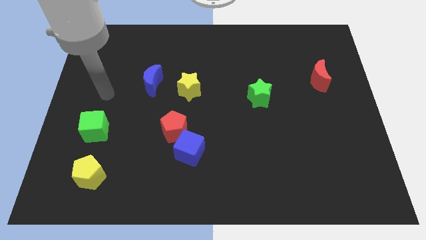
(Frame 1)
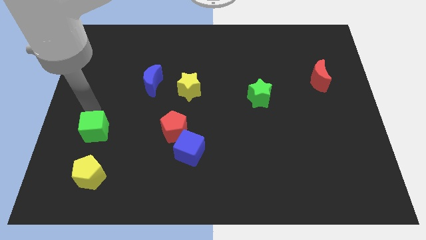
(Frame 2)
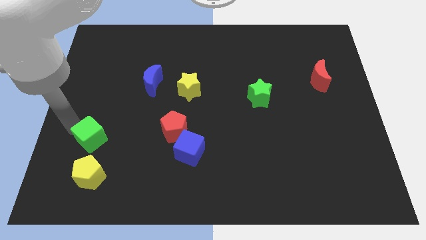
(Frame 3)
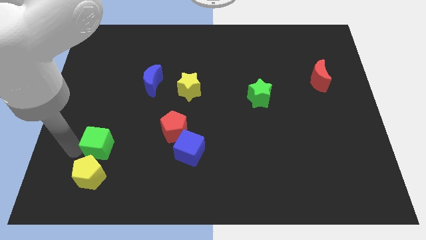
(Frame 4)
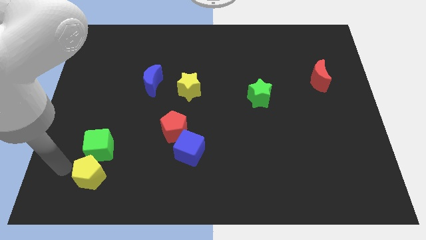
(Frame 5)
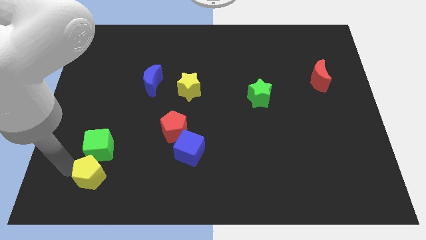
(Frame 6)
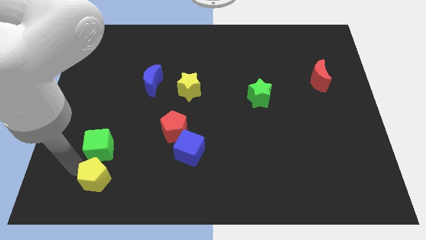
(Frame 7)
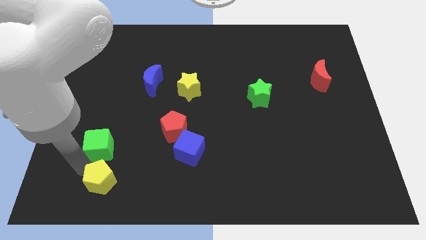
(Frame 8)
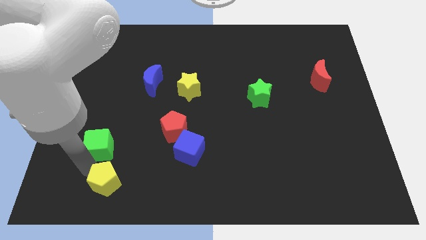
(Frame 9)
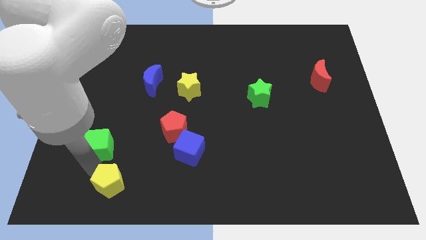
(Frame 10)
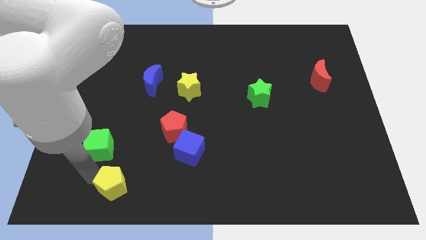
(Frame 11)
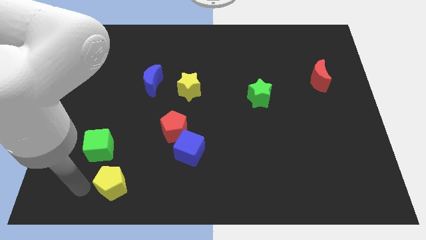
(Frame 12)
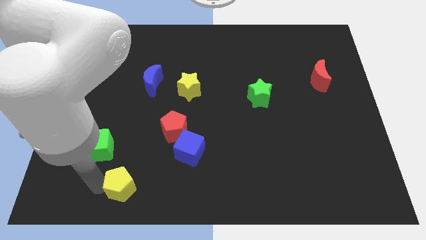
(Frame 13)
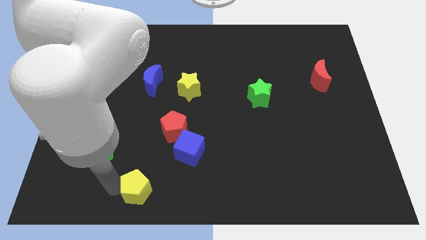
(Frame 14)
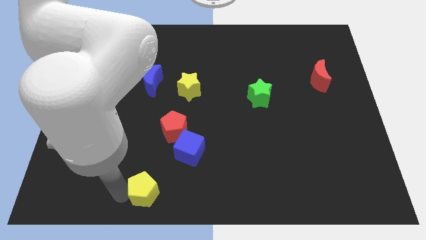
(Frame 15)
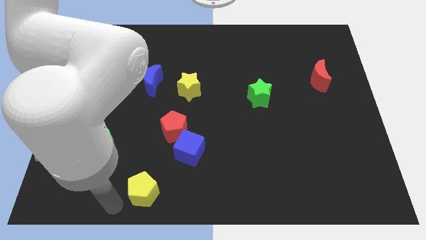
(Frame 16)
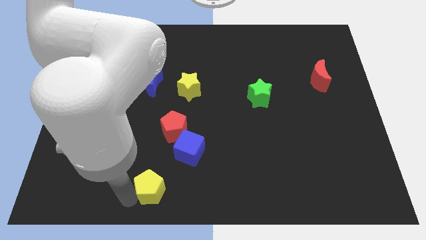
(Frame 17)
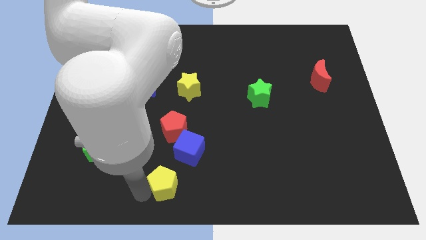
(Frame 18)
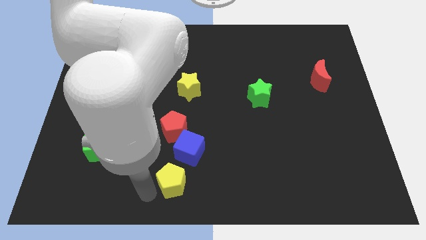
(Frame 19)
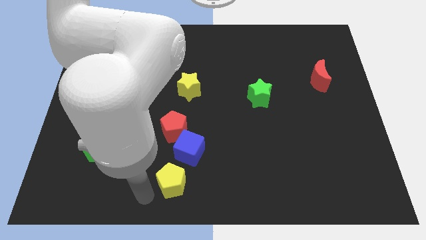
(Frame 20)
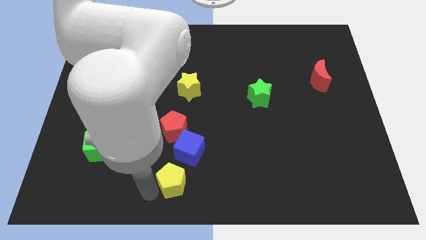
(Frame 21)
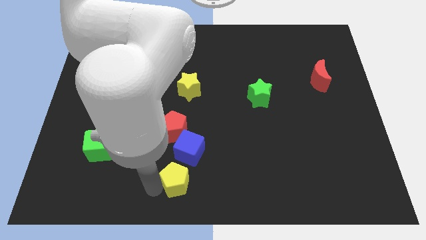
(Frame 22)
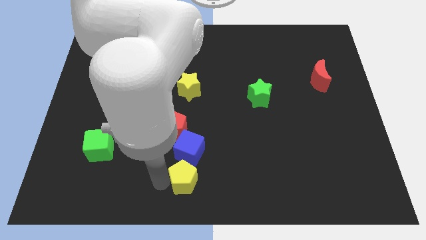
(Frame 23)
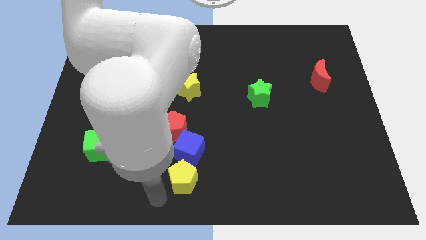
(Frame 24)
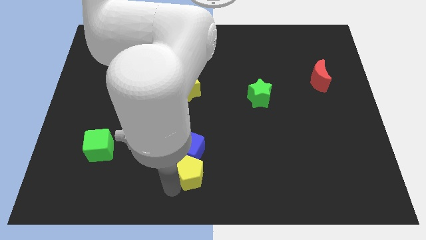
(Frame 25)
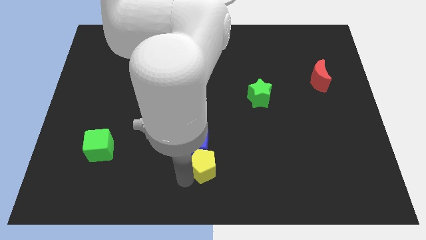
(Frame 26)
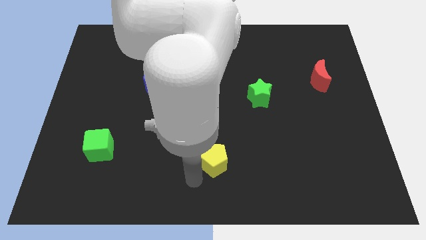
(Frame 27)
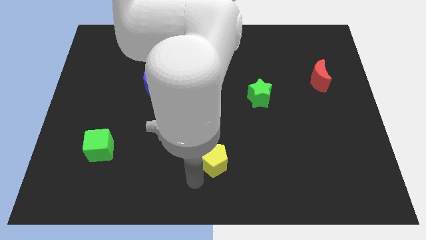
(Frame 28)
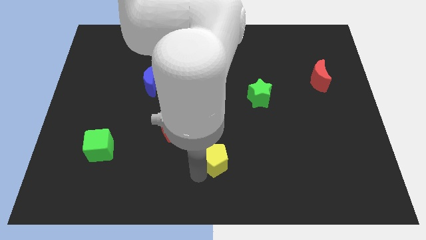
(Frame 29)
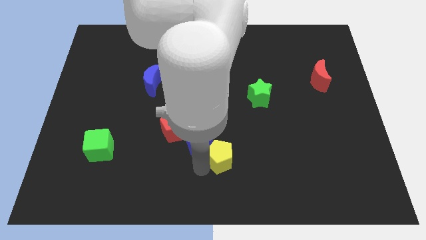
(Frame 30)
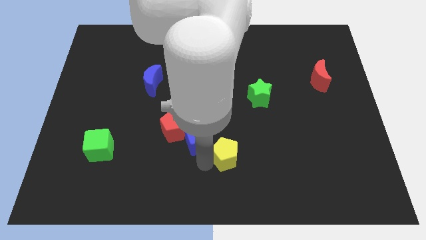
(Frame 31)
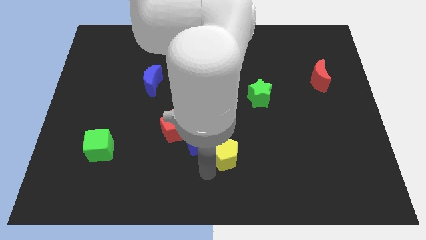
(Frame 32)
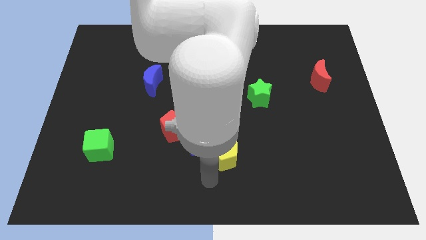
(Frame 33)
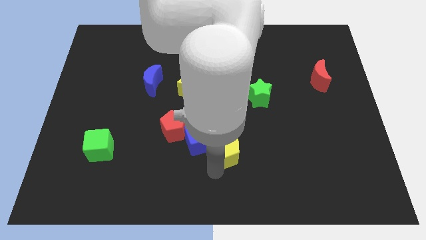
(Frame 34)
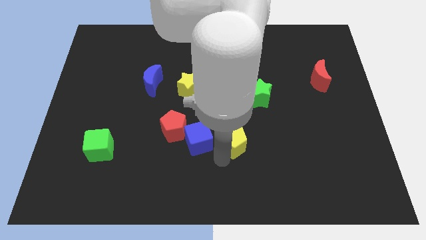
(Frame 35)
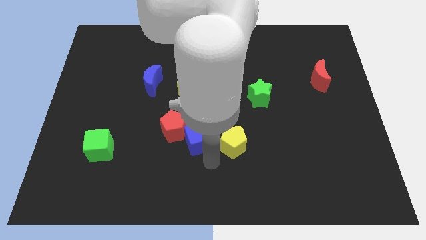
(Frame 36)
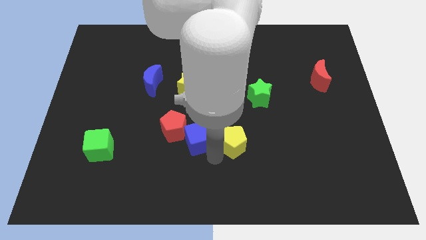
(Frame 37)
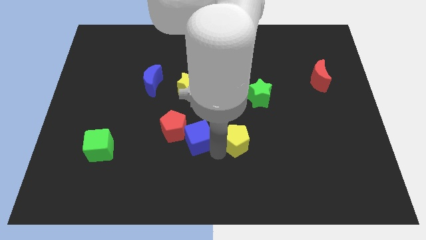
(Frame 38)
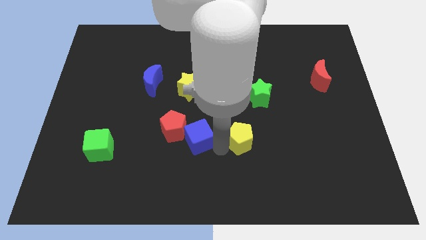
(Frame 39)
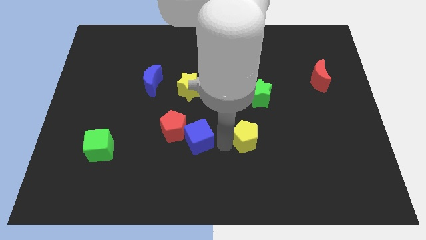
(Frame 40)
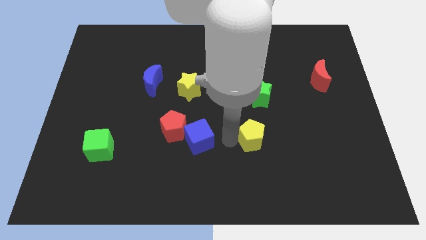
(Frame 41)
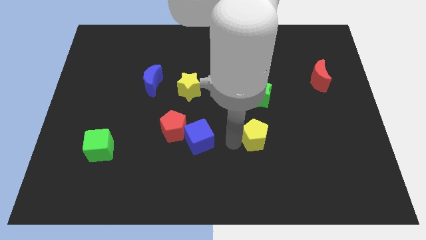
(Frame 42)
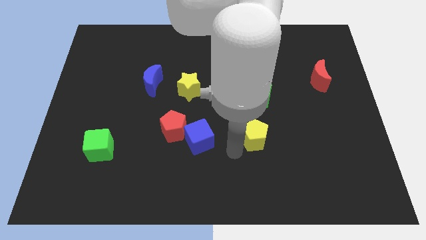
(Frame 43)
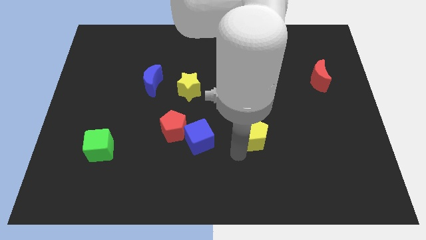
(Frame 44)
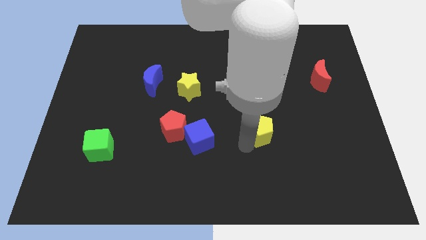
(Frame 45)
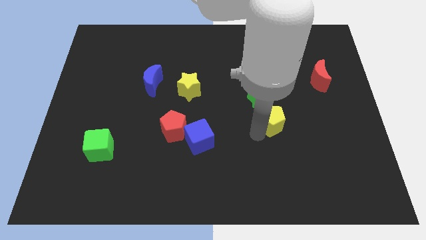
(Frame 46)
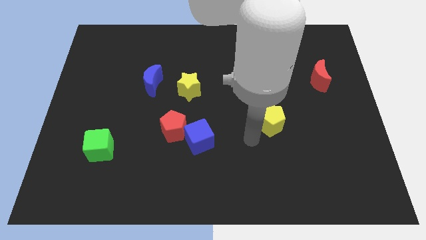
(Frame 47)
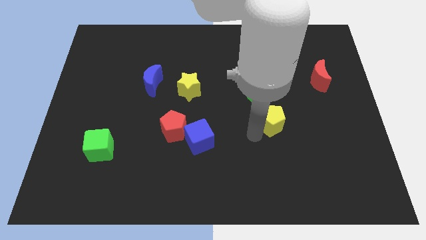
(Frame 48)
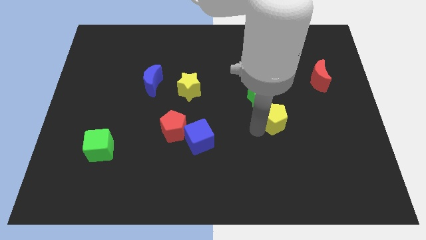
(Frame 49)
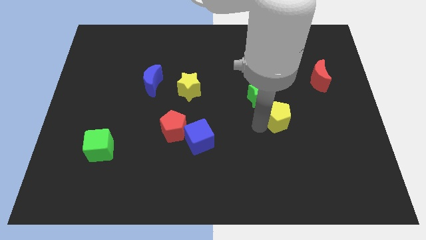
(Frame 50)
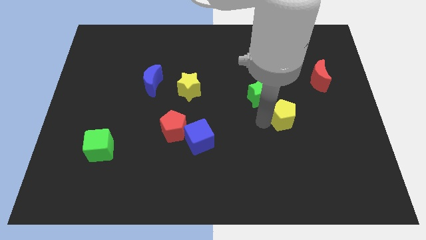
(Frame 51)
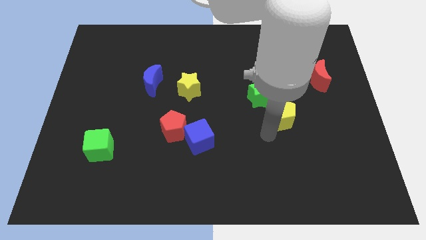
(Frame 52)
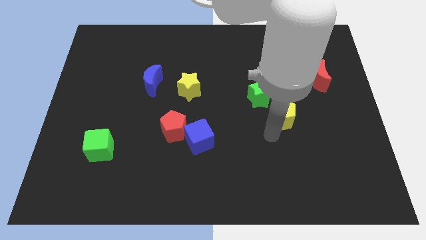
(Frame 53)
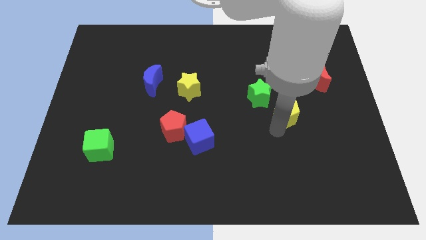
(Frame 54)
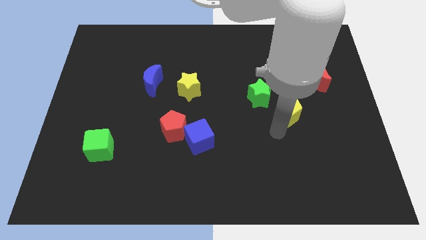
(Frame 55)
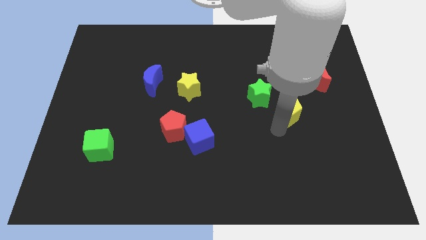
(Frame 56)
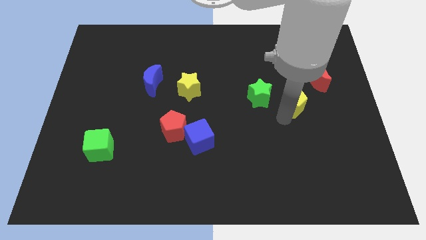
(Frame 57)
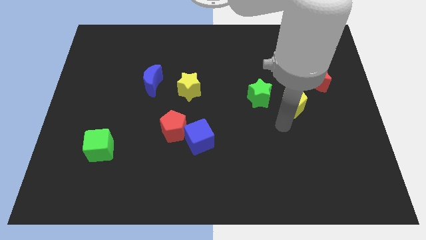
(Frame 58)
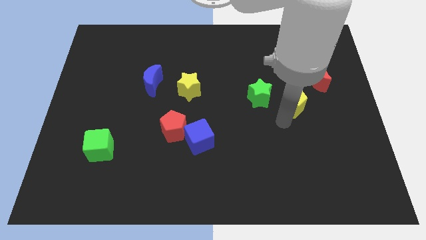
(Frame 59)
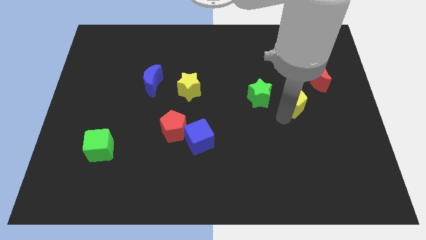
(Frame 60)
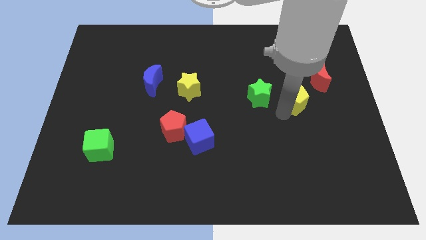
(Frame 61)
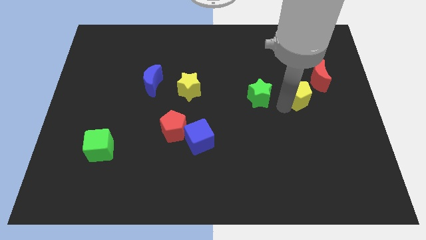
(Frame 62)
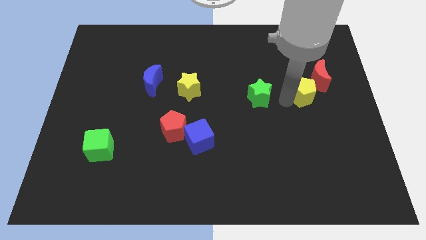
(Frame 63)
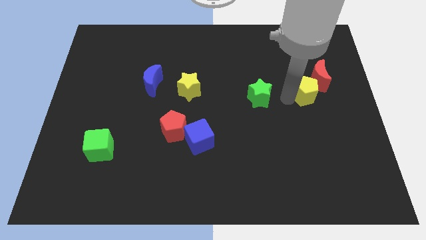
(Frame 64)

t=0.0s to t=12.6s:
push the yellow pentagon towards the red moon

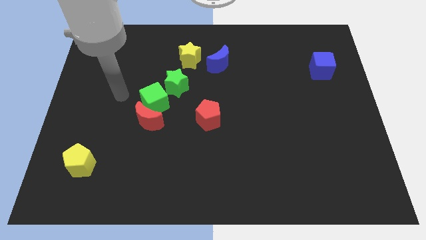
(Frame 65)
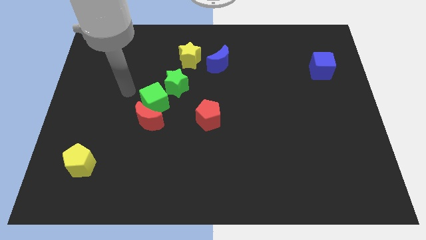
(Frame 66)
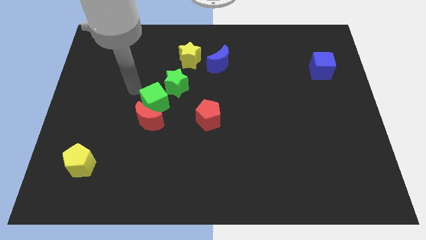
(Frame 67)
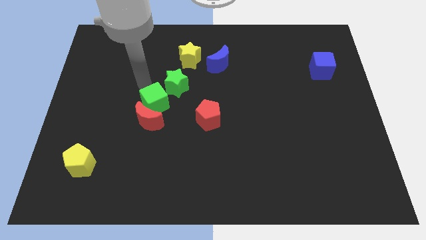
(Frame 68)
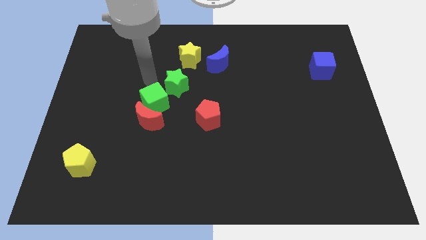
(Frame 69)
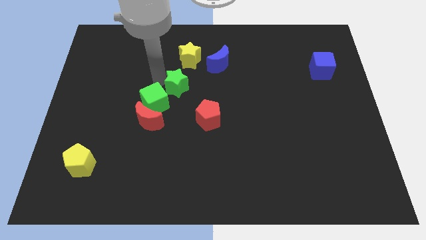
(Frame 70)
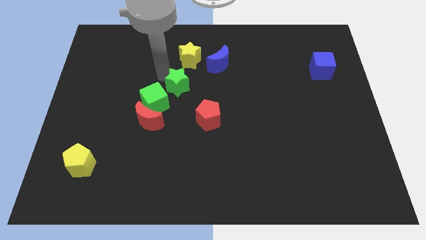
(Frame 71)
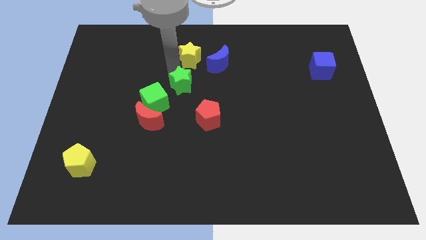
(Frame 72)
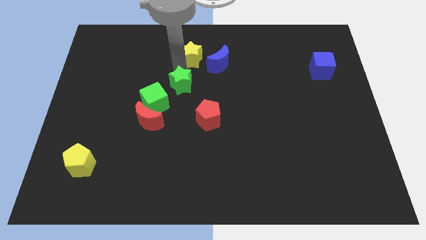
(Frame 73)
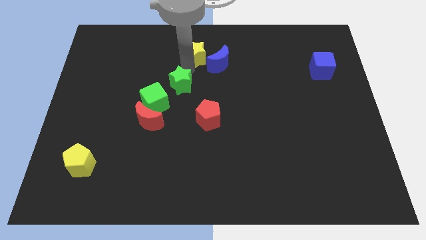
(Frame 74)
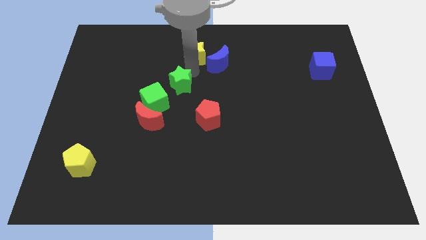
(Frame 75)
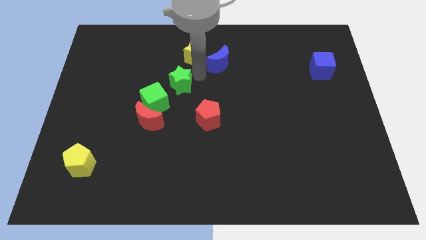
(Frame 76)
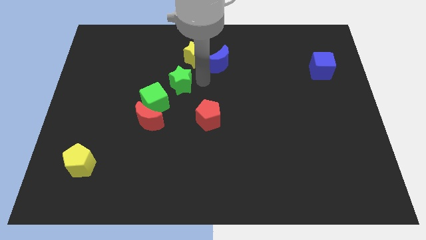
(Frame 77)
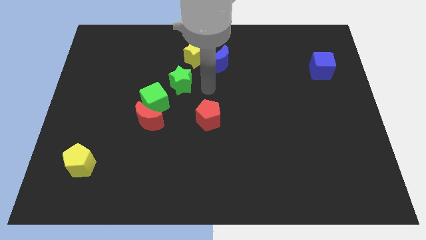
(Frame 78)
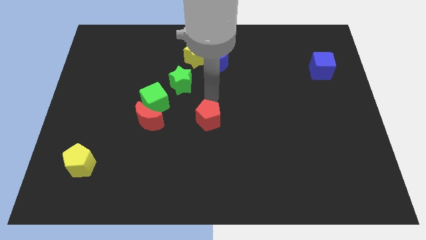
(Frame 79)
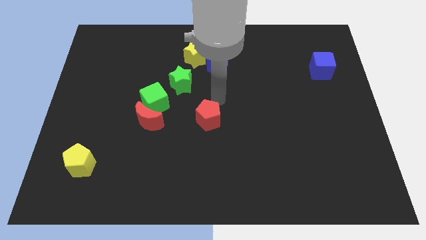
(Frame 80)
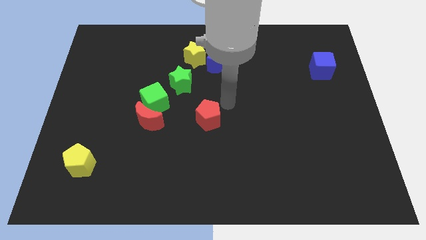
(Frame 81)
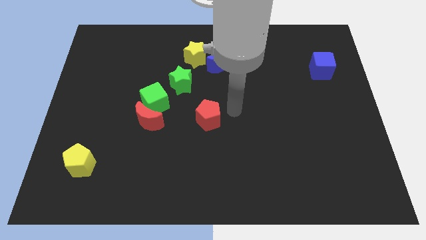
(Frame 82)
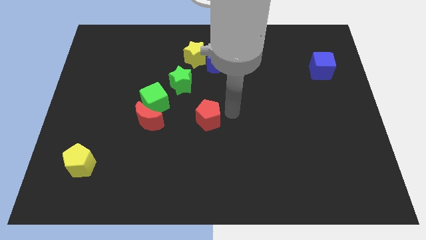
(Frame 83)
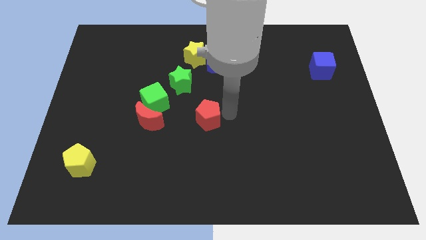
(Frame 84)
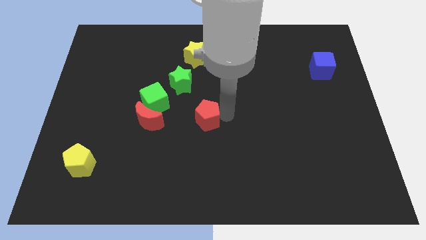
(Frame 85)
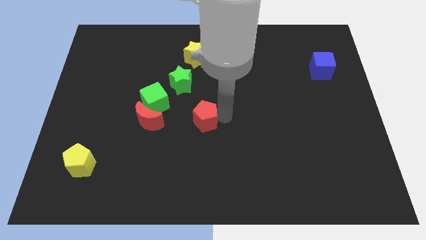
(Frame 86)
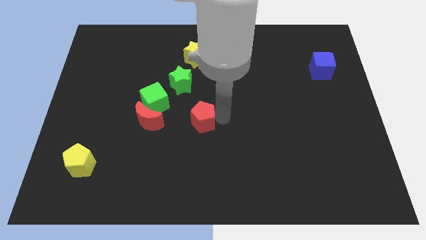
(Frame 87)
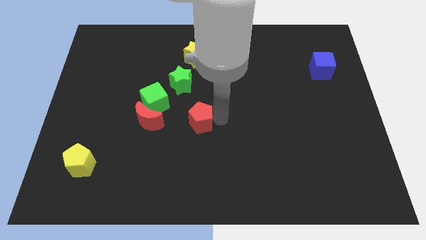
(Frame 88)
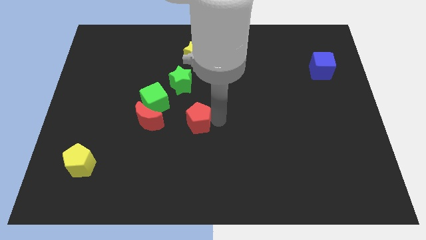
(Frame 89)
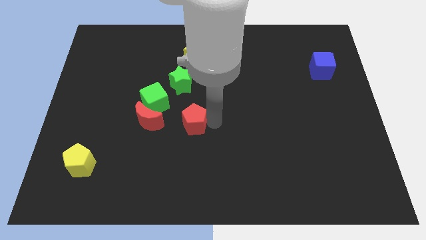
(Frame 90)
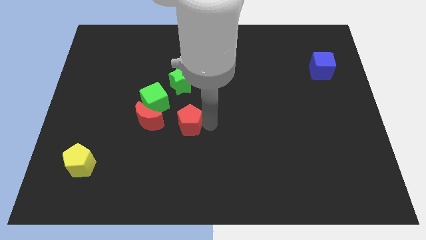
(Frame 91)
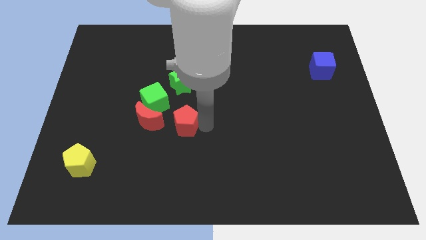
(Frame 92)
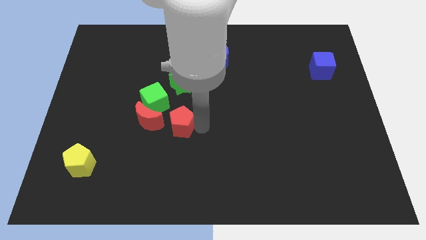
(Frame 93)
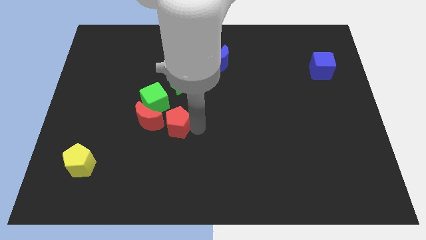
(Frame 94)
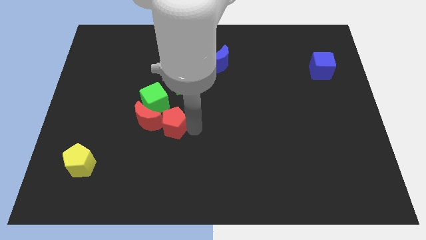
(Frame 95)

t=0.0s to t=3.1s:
put the red pentagon towards the red moon
